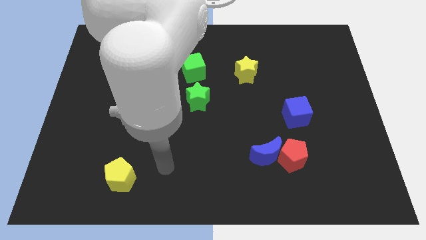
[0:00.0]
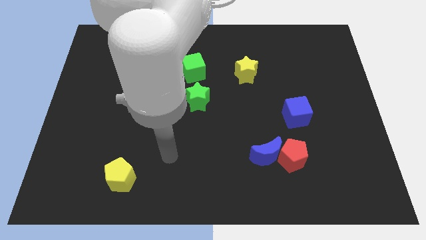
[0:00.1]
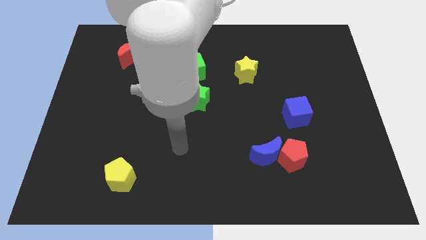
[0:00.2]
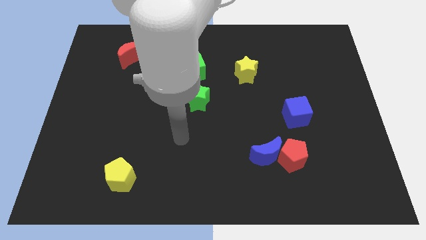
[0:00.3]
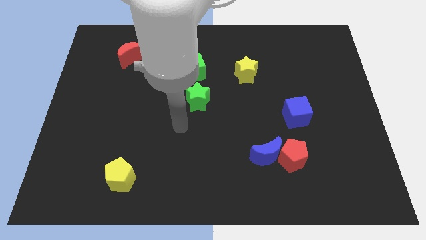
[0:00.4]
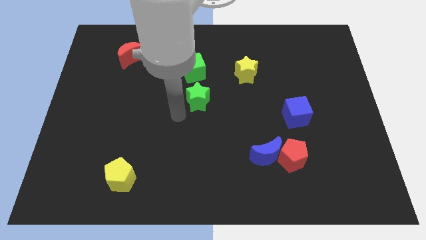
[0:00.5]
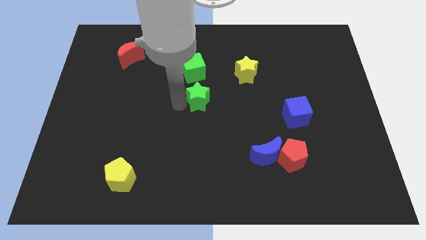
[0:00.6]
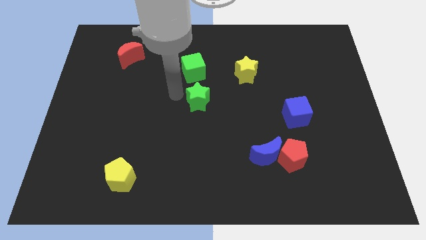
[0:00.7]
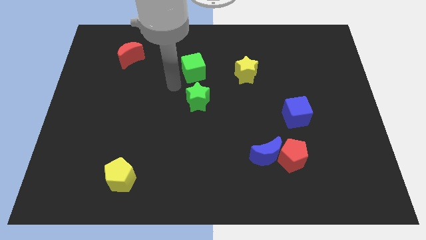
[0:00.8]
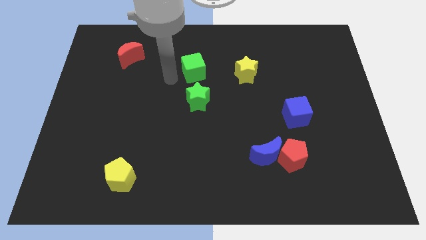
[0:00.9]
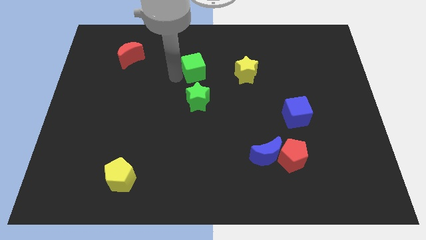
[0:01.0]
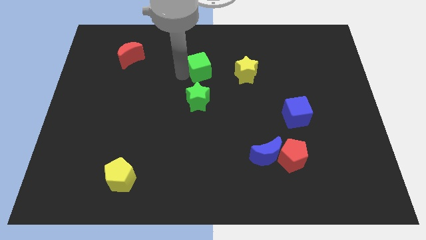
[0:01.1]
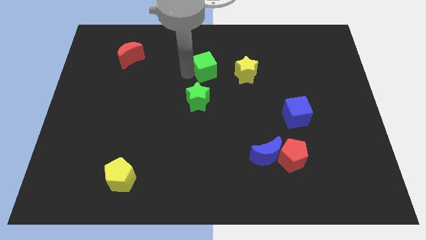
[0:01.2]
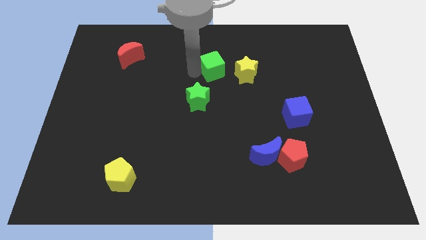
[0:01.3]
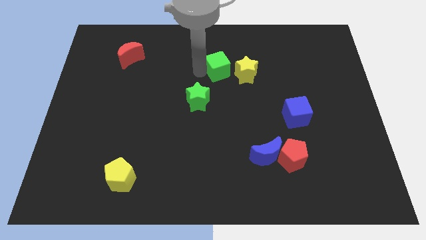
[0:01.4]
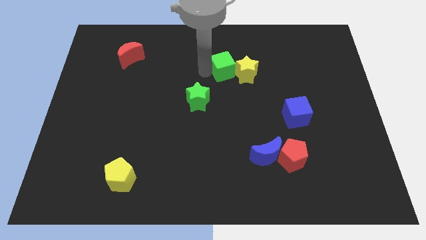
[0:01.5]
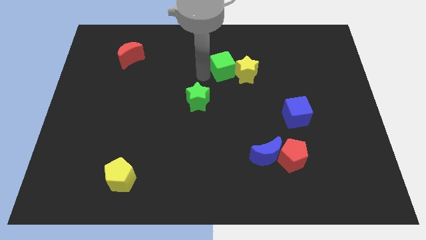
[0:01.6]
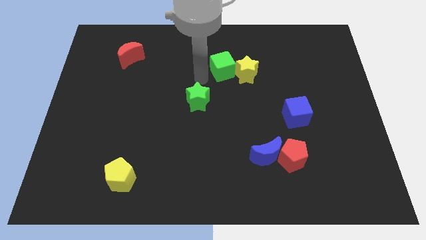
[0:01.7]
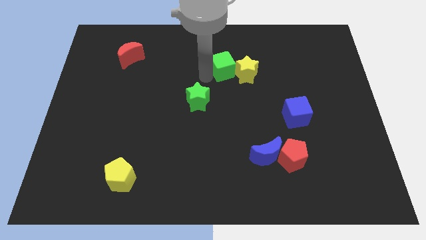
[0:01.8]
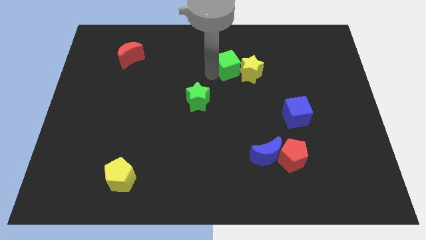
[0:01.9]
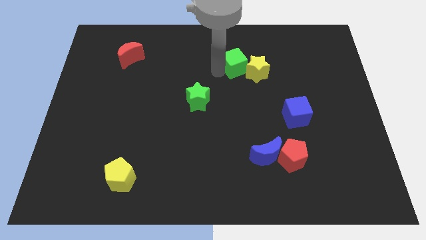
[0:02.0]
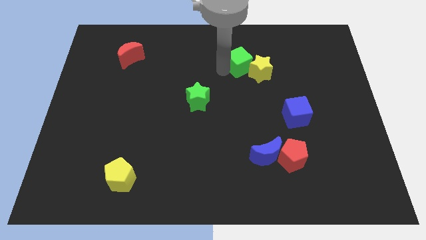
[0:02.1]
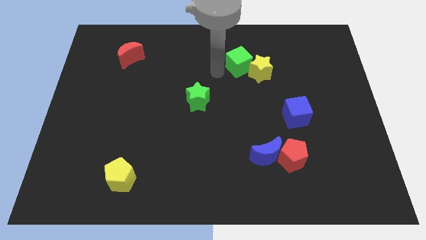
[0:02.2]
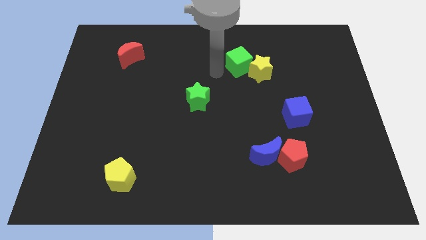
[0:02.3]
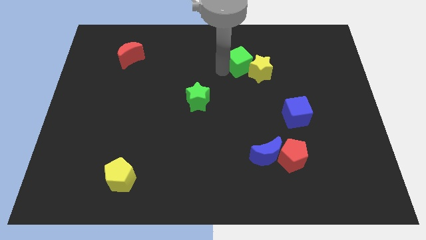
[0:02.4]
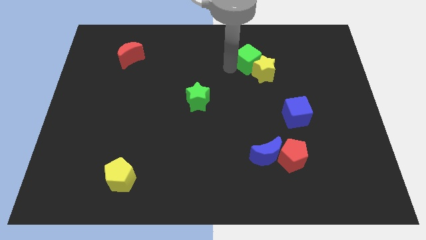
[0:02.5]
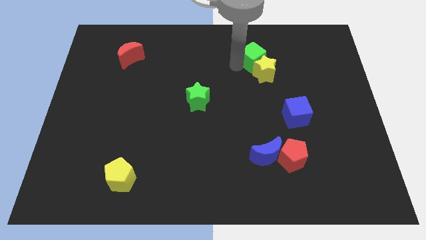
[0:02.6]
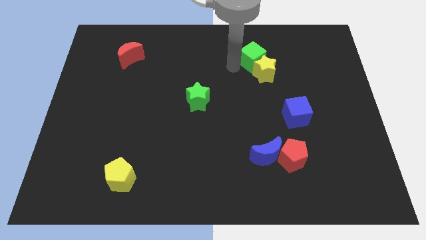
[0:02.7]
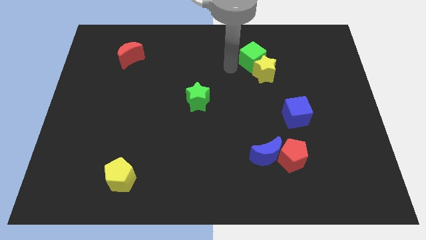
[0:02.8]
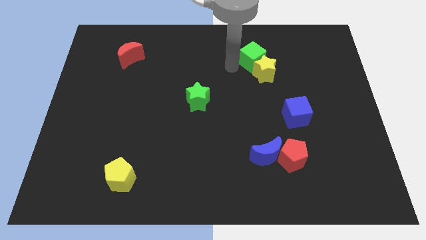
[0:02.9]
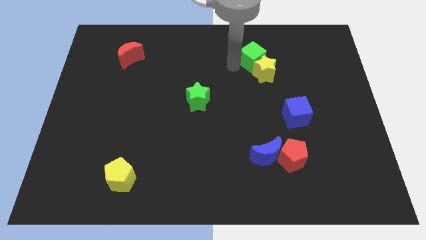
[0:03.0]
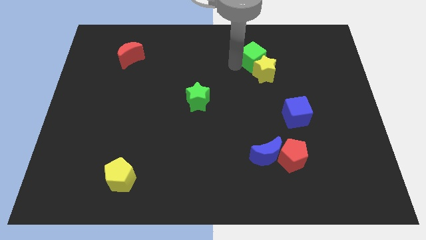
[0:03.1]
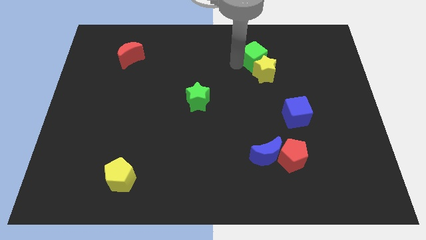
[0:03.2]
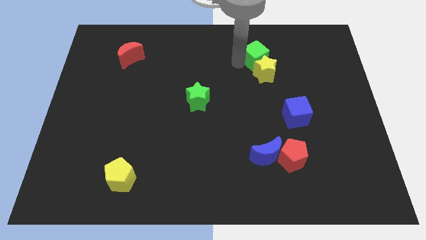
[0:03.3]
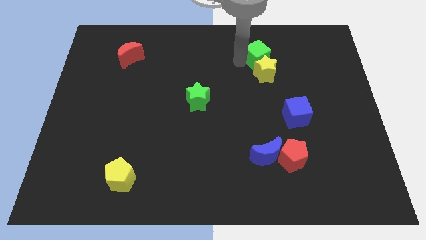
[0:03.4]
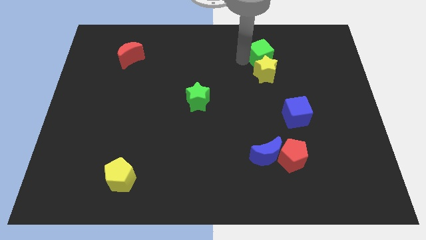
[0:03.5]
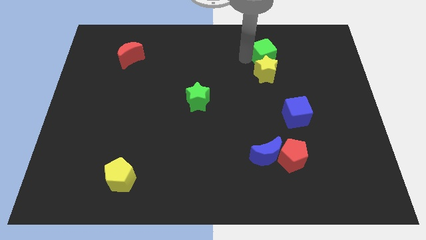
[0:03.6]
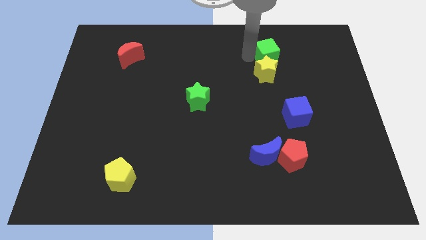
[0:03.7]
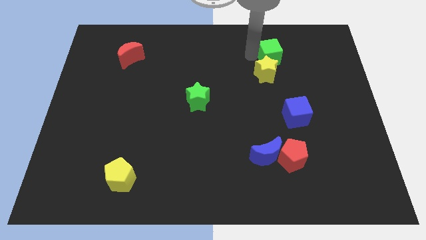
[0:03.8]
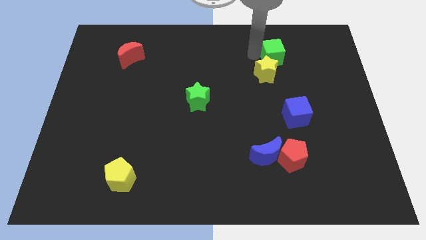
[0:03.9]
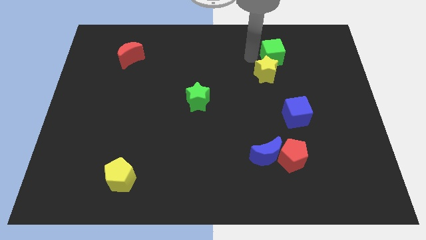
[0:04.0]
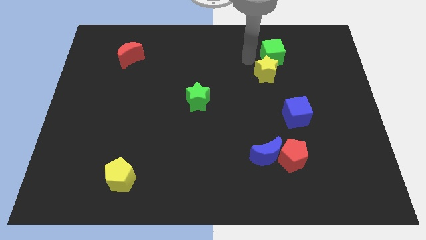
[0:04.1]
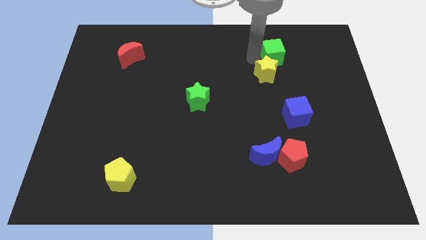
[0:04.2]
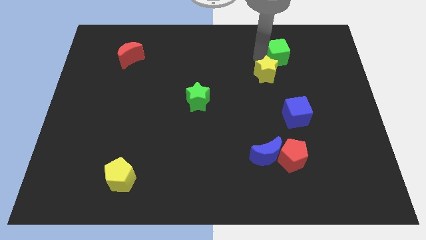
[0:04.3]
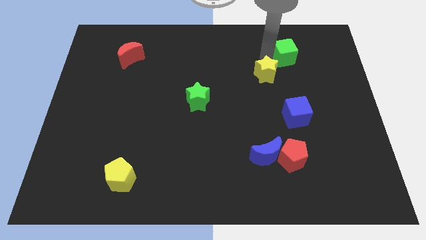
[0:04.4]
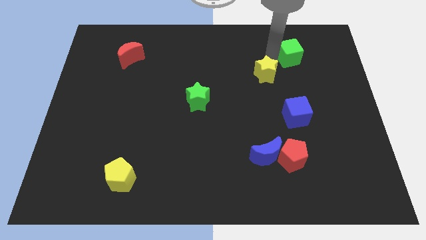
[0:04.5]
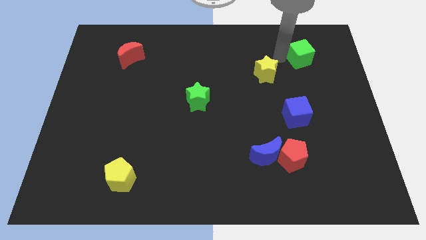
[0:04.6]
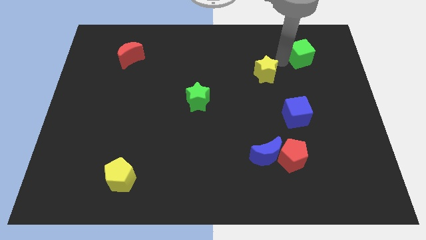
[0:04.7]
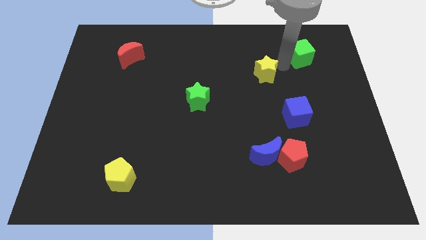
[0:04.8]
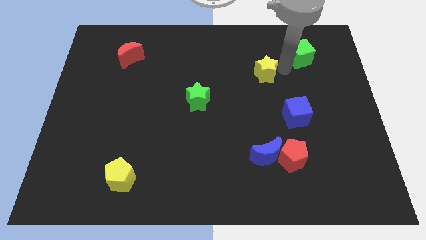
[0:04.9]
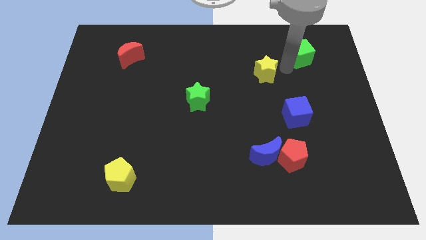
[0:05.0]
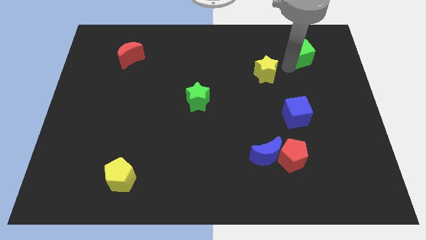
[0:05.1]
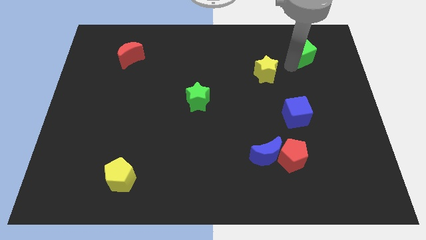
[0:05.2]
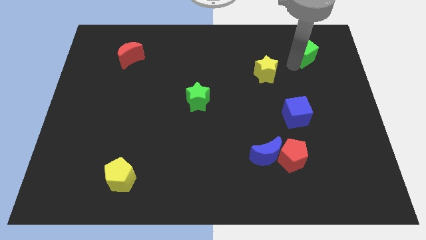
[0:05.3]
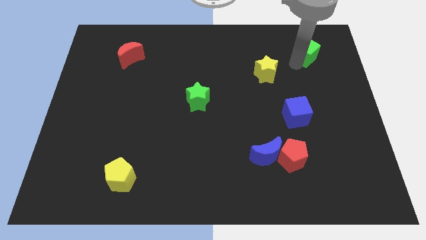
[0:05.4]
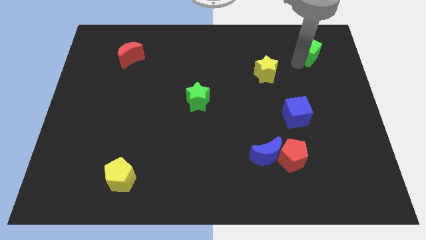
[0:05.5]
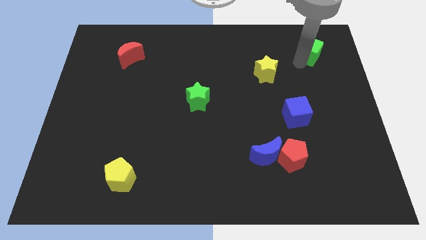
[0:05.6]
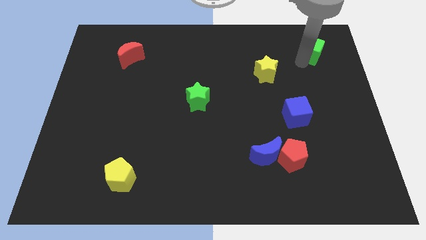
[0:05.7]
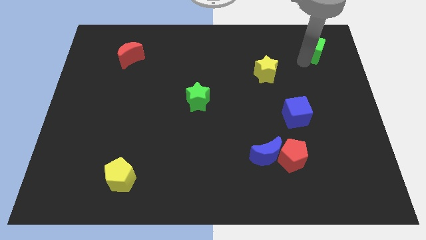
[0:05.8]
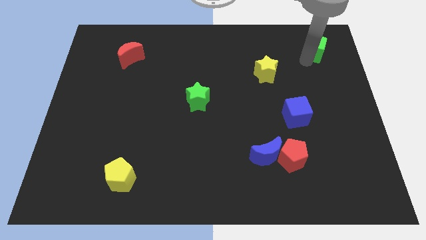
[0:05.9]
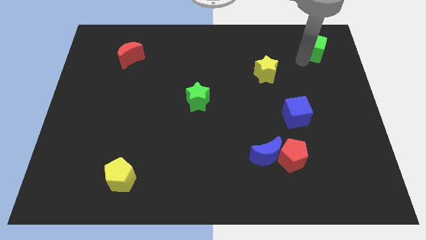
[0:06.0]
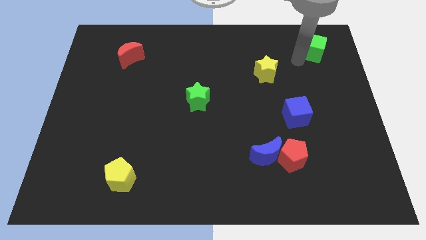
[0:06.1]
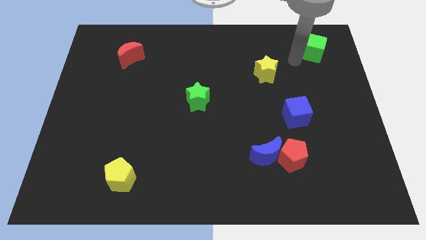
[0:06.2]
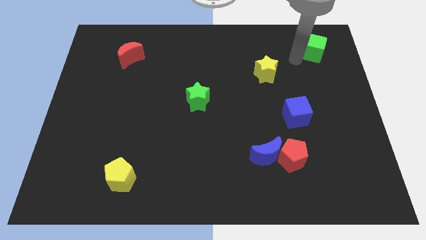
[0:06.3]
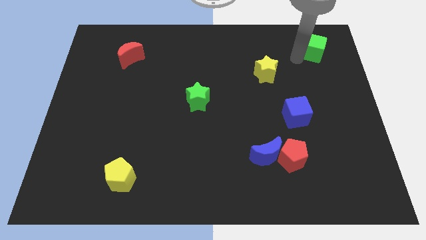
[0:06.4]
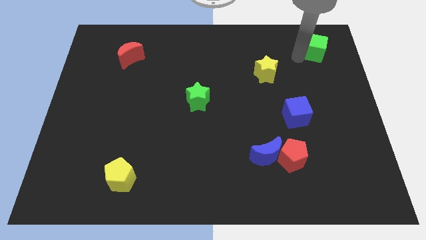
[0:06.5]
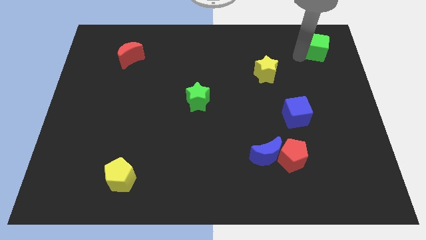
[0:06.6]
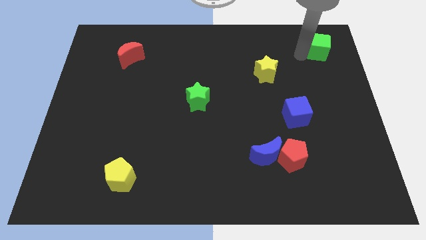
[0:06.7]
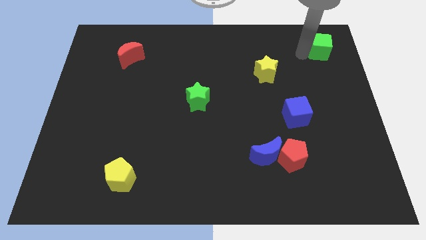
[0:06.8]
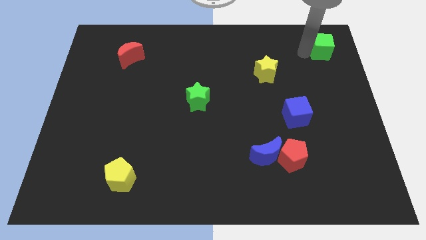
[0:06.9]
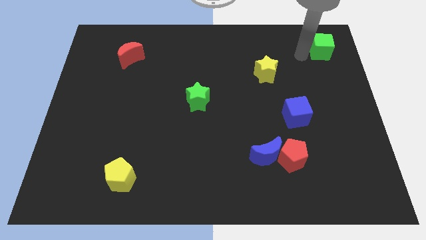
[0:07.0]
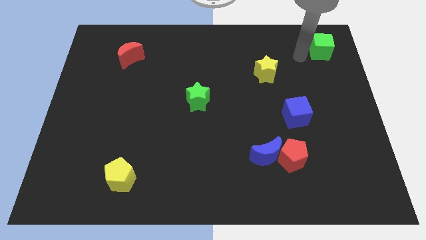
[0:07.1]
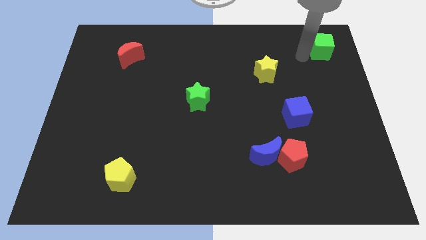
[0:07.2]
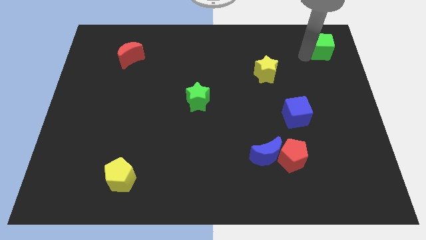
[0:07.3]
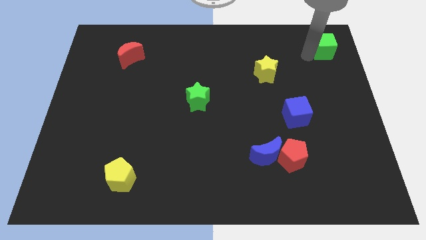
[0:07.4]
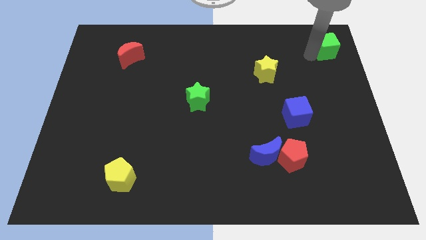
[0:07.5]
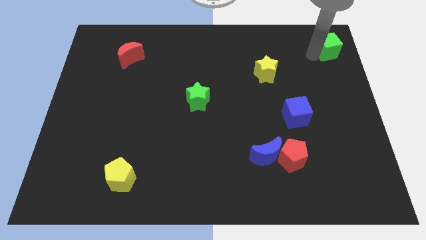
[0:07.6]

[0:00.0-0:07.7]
slide the green cube to the upper right corner
